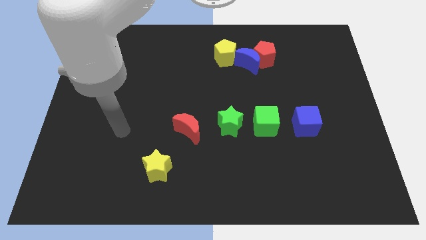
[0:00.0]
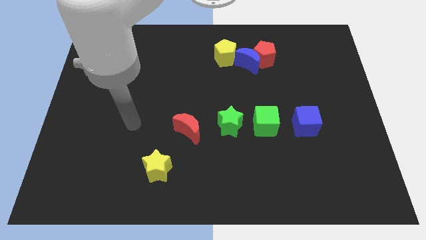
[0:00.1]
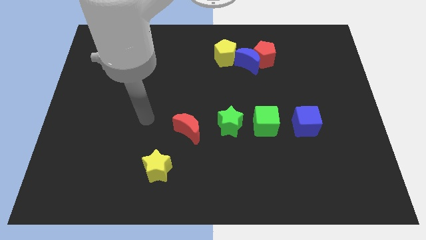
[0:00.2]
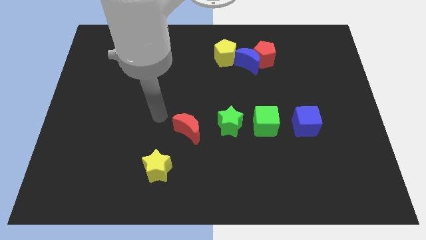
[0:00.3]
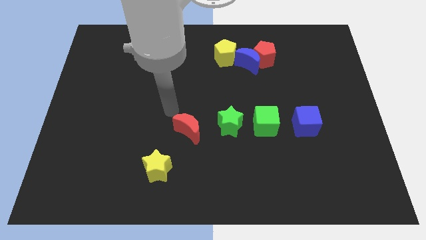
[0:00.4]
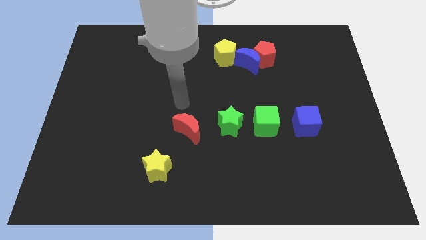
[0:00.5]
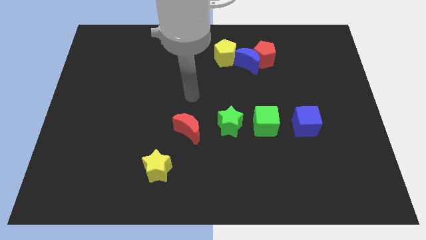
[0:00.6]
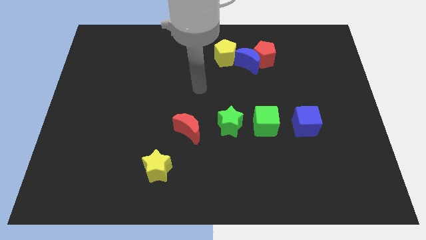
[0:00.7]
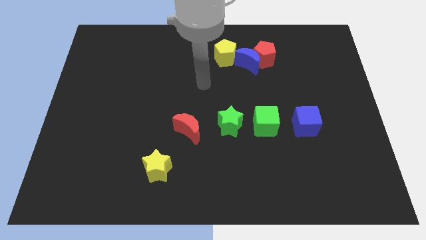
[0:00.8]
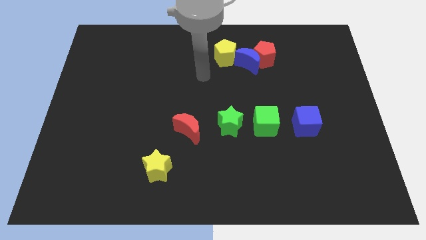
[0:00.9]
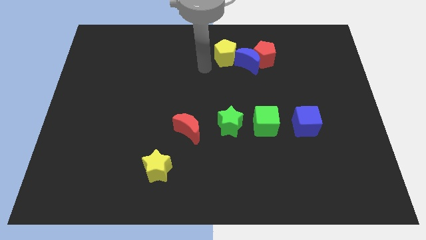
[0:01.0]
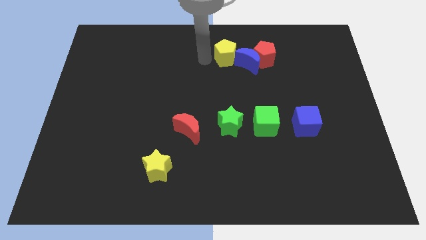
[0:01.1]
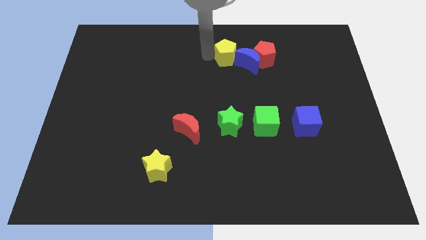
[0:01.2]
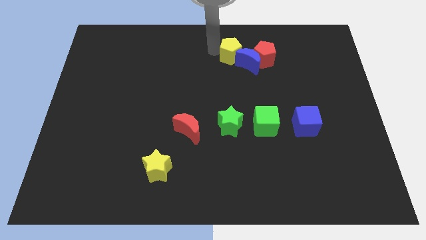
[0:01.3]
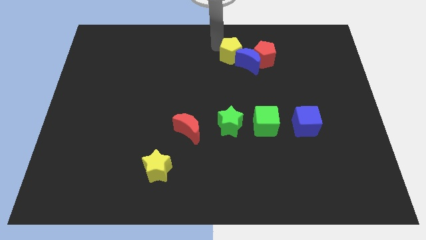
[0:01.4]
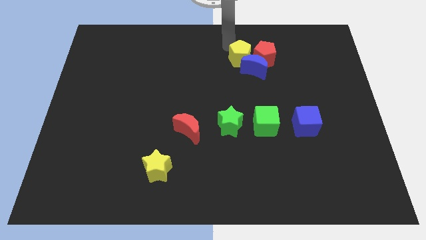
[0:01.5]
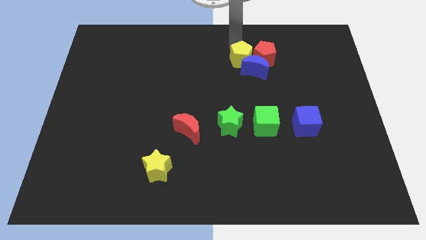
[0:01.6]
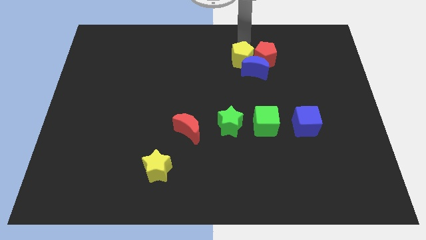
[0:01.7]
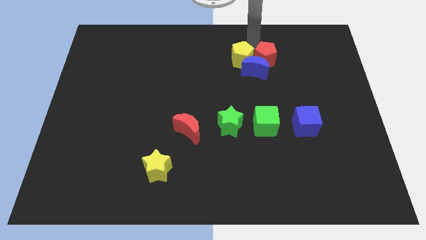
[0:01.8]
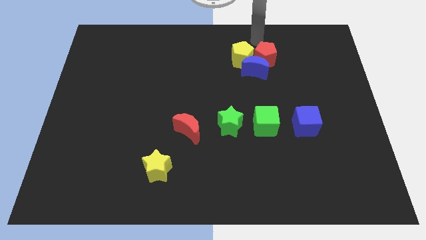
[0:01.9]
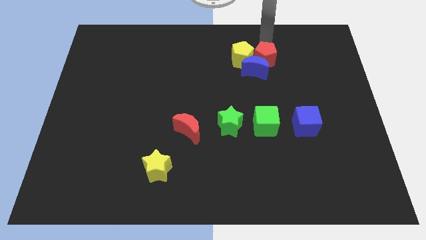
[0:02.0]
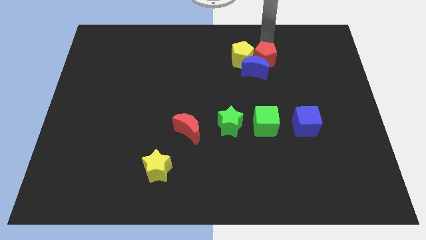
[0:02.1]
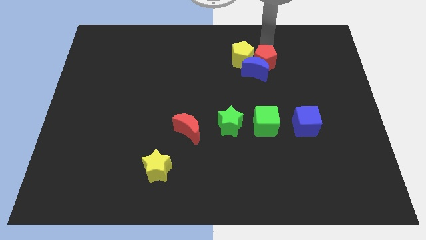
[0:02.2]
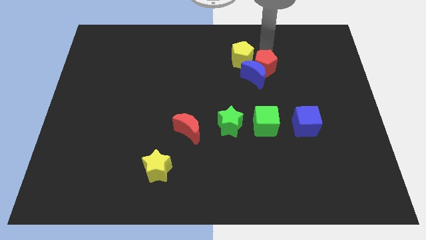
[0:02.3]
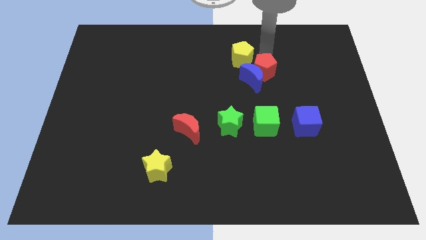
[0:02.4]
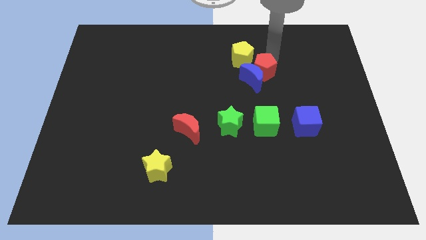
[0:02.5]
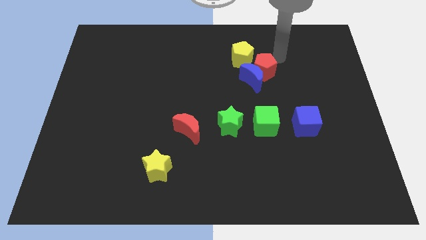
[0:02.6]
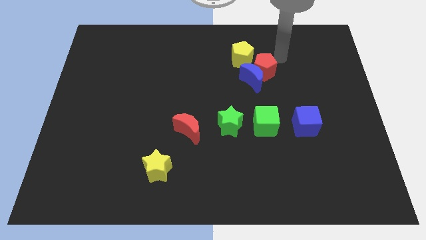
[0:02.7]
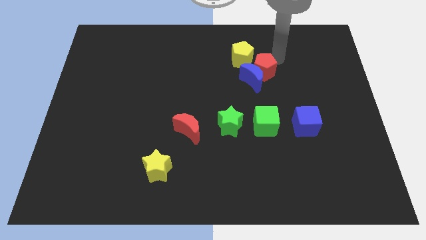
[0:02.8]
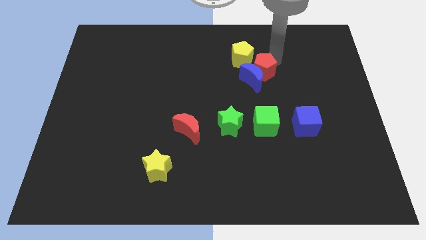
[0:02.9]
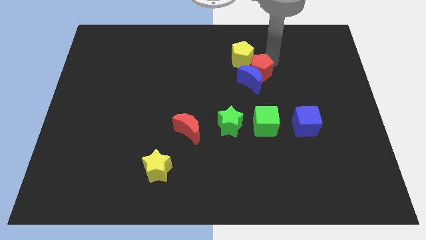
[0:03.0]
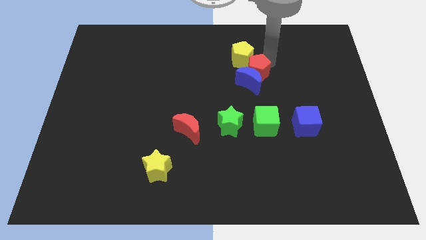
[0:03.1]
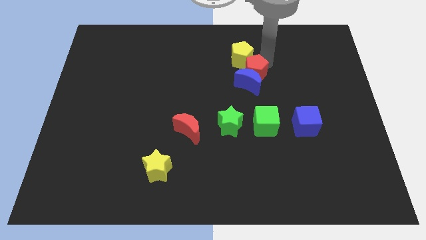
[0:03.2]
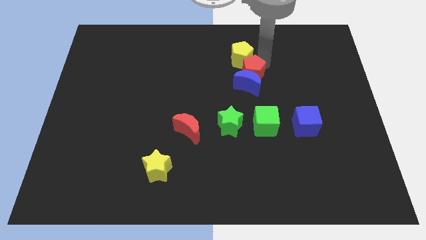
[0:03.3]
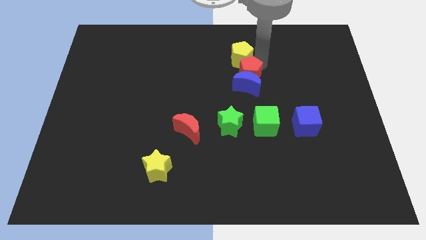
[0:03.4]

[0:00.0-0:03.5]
slightly push the red pentagon downwards and then to the left

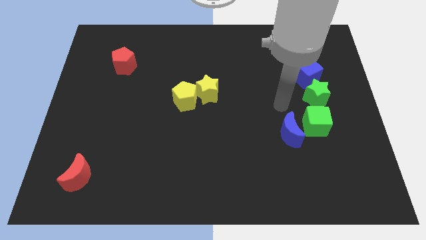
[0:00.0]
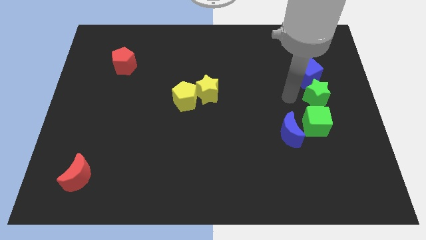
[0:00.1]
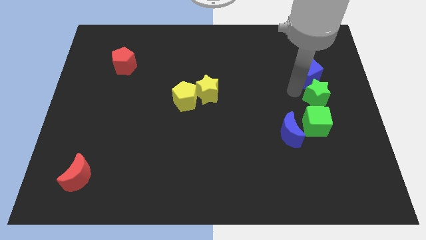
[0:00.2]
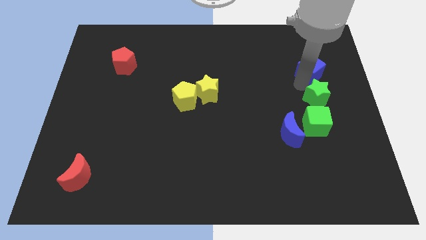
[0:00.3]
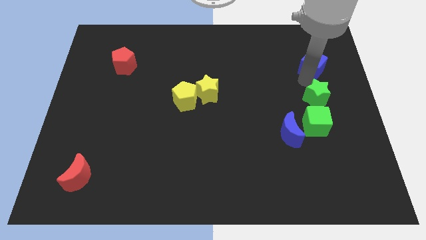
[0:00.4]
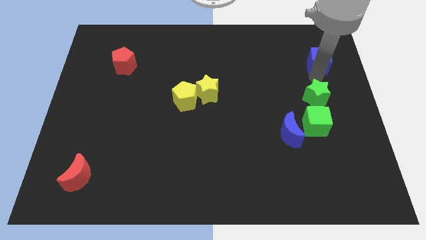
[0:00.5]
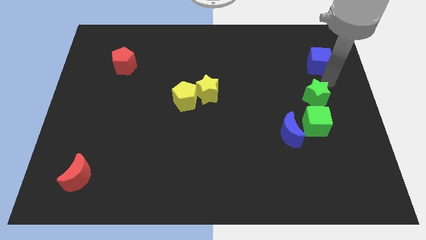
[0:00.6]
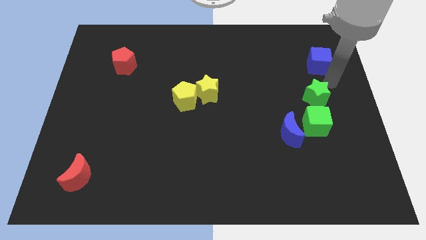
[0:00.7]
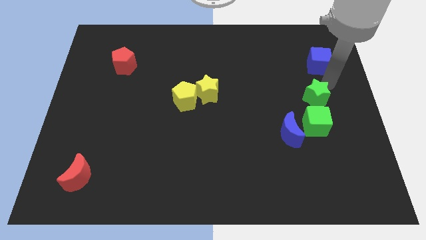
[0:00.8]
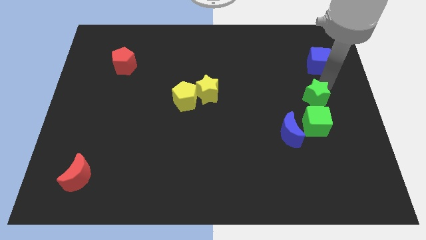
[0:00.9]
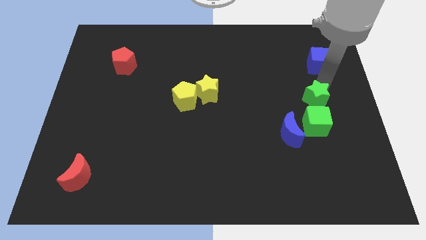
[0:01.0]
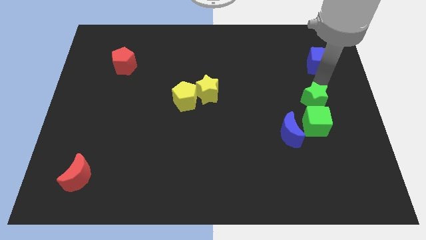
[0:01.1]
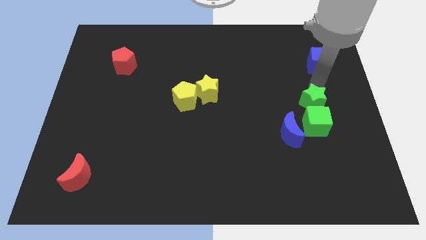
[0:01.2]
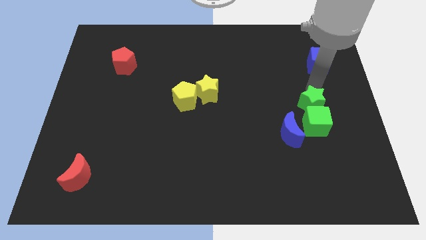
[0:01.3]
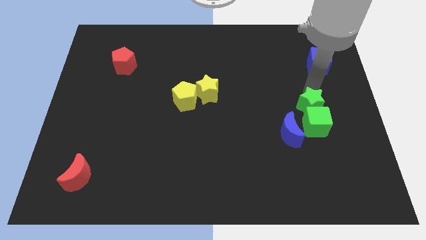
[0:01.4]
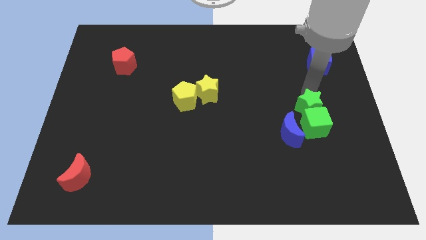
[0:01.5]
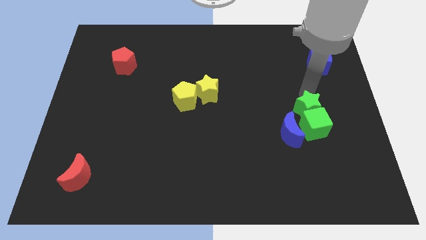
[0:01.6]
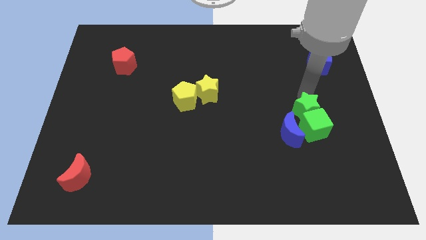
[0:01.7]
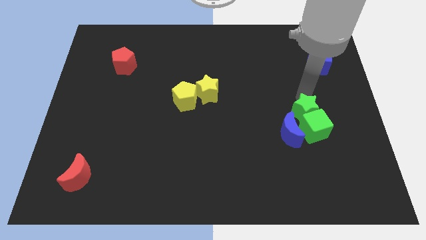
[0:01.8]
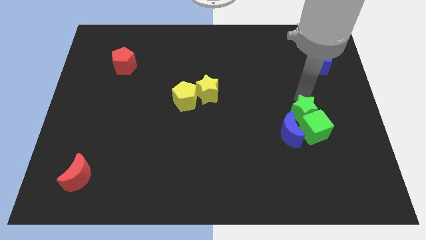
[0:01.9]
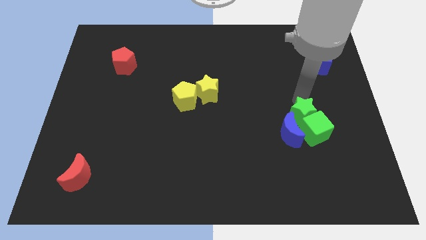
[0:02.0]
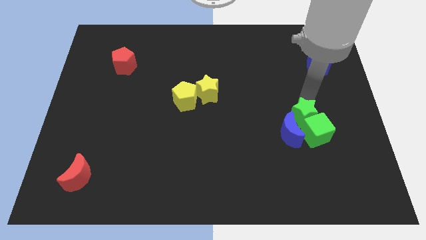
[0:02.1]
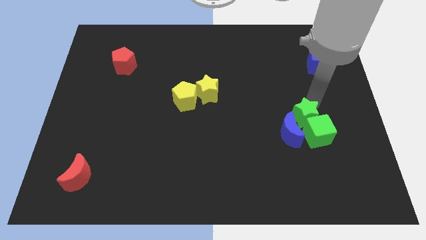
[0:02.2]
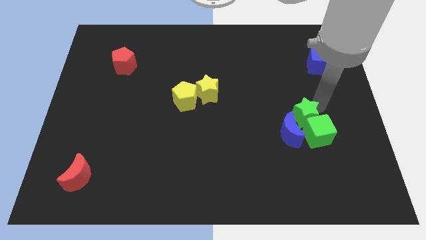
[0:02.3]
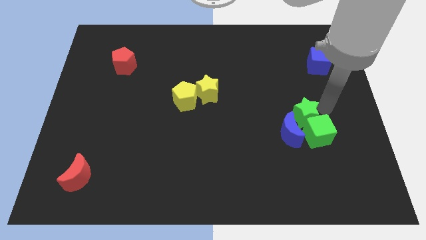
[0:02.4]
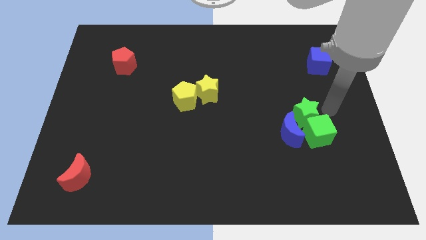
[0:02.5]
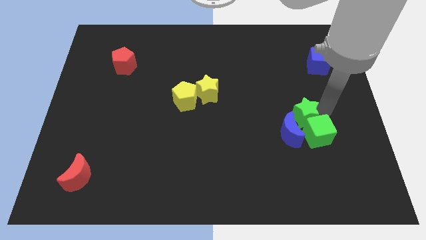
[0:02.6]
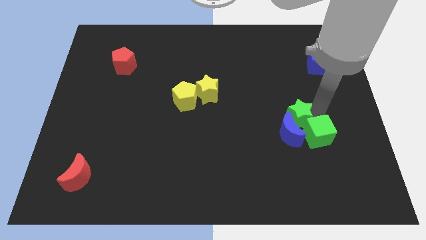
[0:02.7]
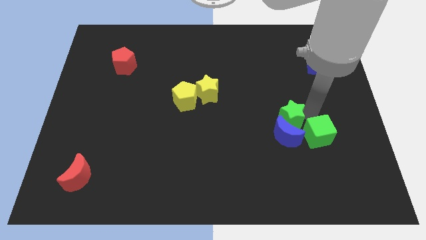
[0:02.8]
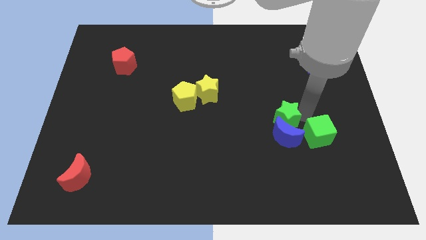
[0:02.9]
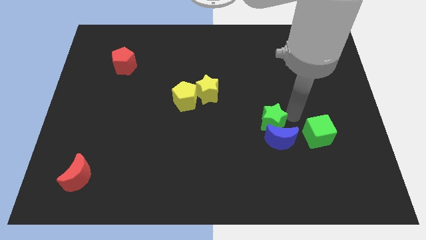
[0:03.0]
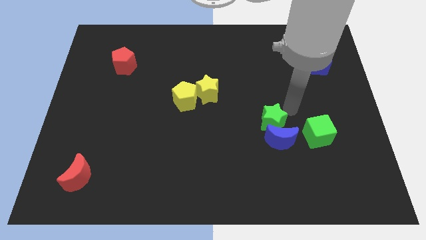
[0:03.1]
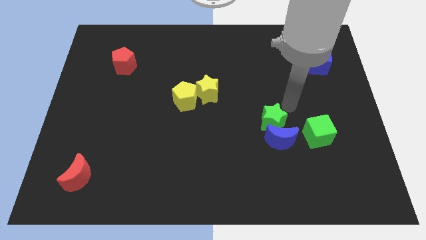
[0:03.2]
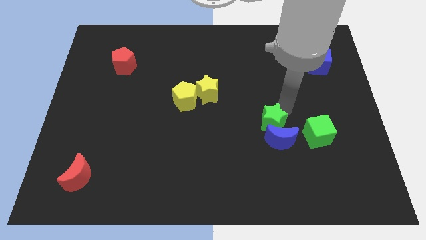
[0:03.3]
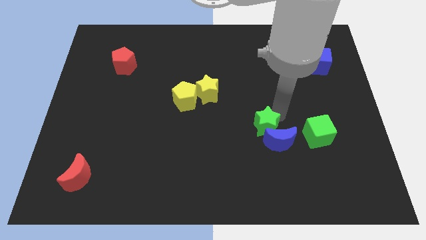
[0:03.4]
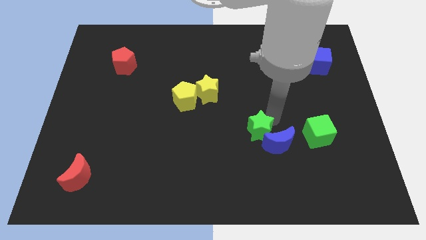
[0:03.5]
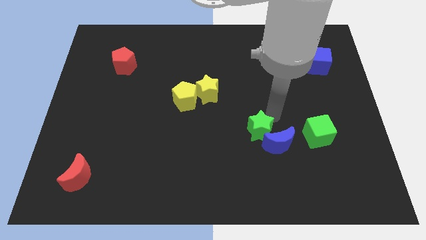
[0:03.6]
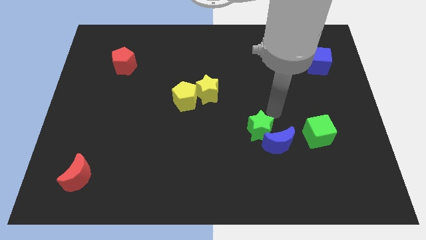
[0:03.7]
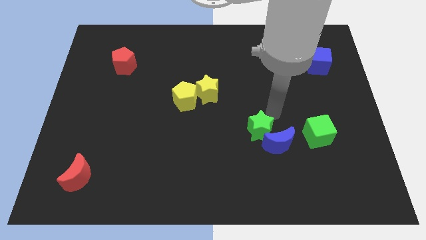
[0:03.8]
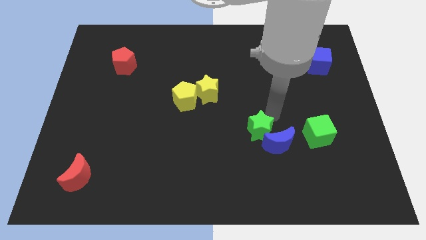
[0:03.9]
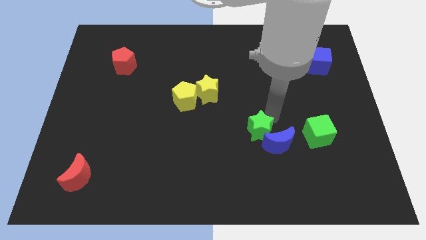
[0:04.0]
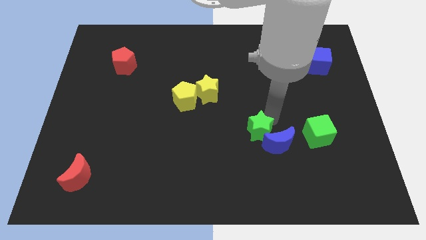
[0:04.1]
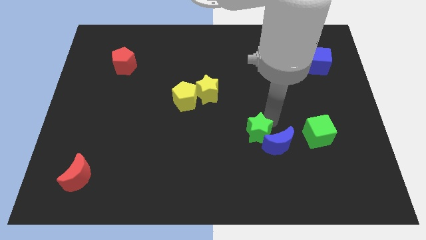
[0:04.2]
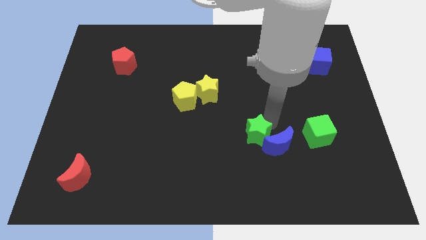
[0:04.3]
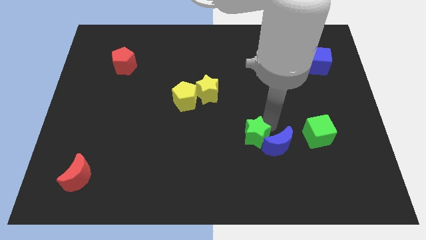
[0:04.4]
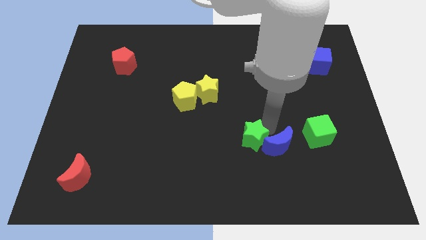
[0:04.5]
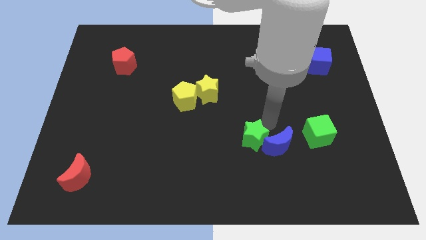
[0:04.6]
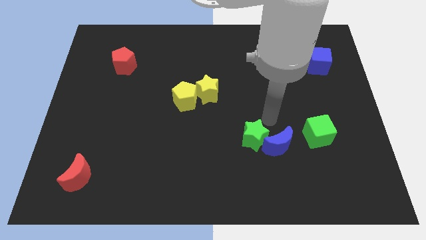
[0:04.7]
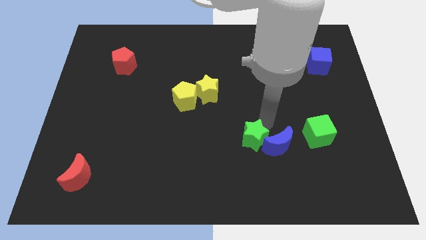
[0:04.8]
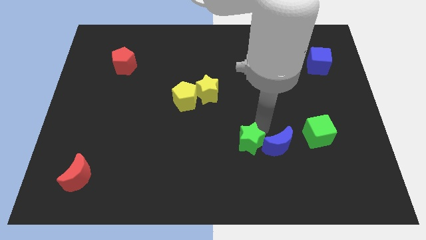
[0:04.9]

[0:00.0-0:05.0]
move the green star downwards and then left
